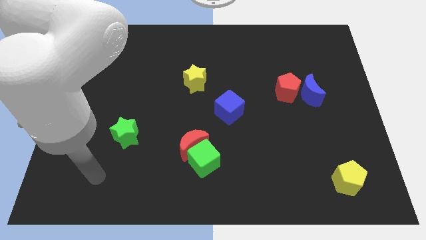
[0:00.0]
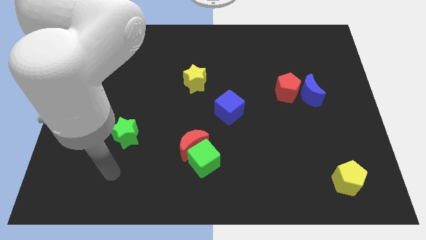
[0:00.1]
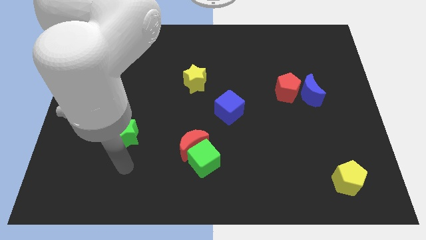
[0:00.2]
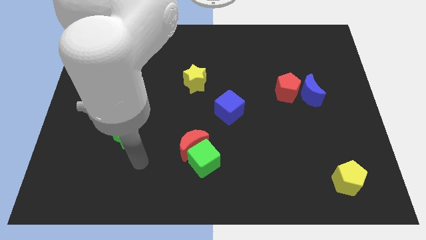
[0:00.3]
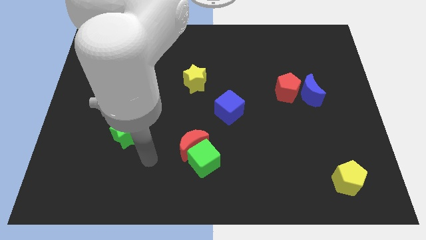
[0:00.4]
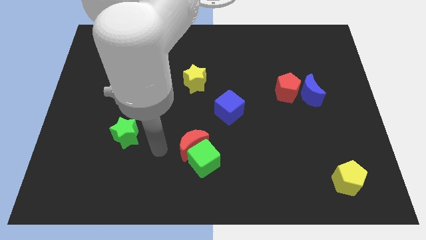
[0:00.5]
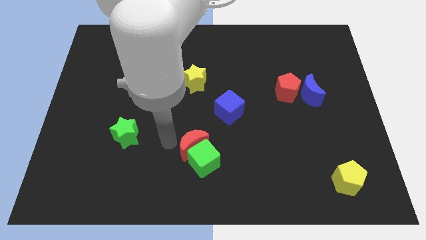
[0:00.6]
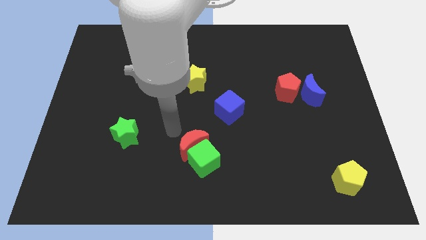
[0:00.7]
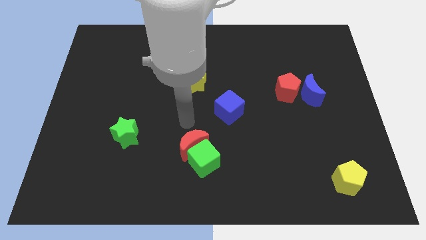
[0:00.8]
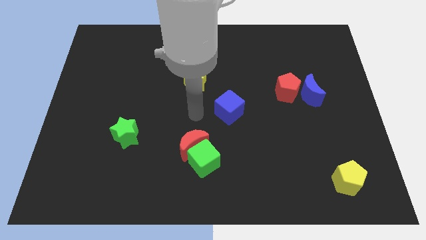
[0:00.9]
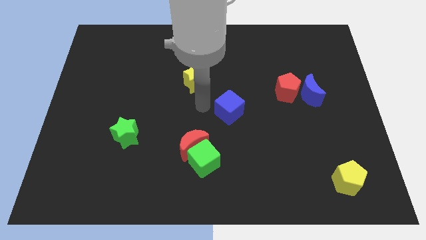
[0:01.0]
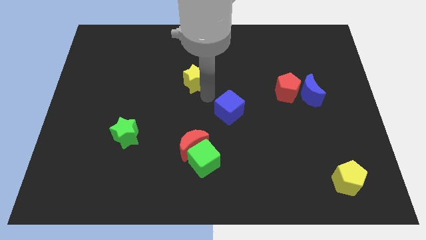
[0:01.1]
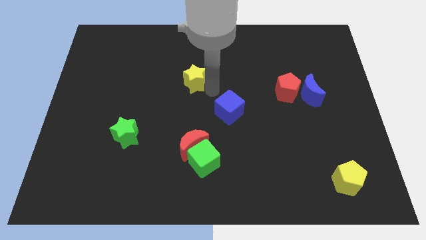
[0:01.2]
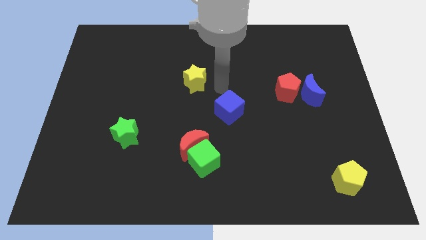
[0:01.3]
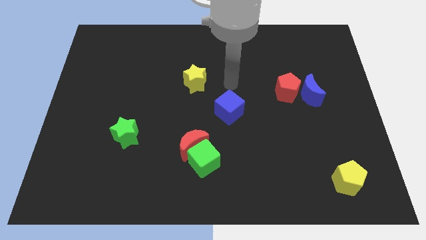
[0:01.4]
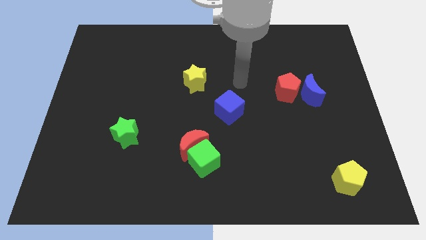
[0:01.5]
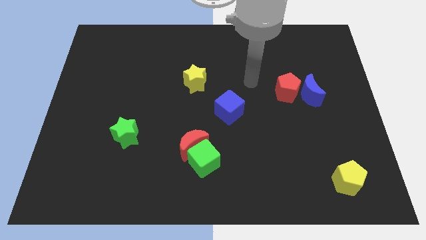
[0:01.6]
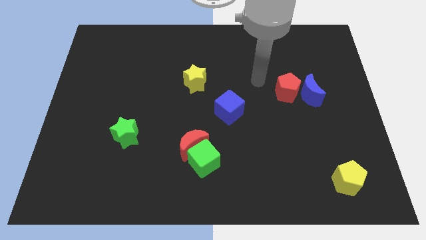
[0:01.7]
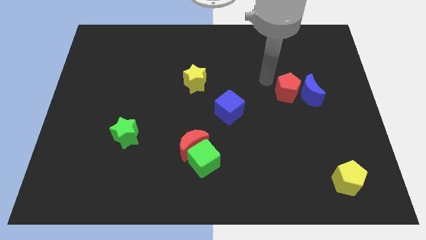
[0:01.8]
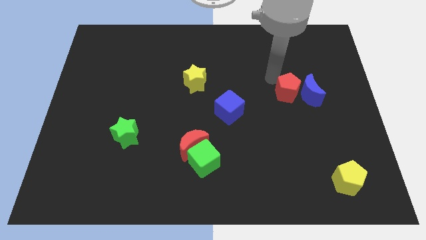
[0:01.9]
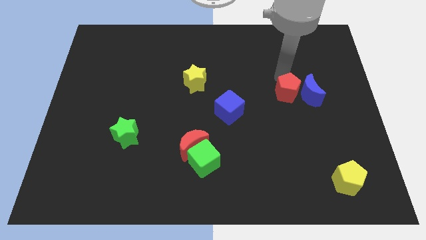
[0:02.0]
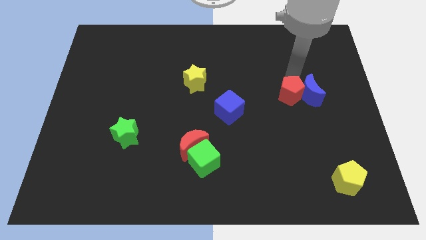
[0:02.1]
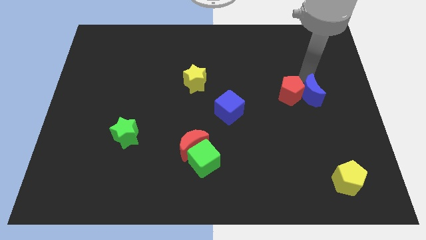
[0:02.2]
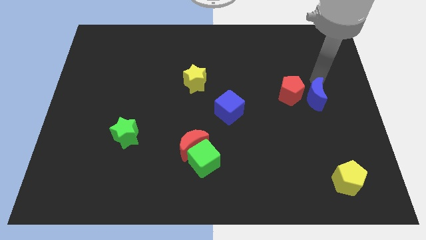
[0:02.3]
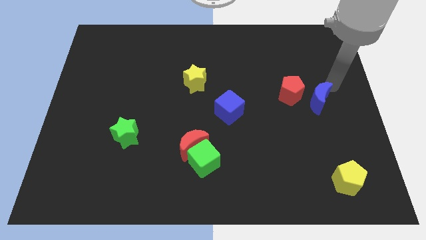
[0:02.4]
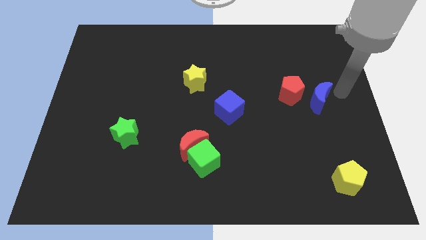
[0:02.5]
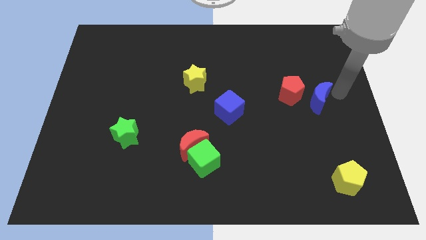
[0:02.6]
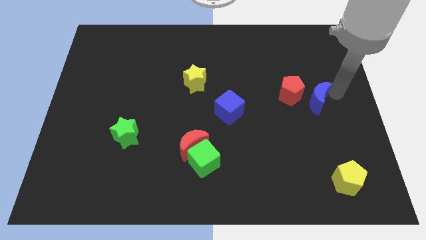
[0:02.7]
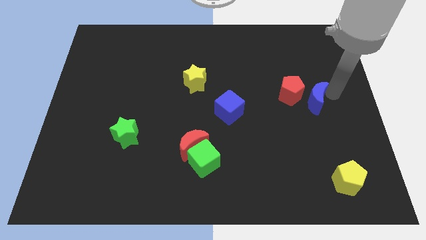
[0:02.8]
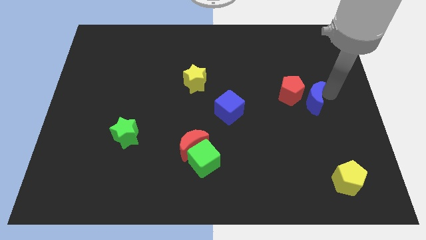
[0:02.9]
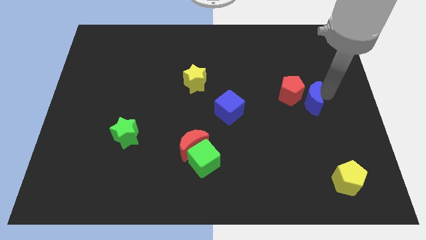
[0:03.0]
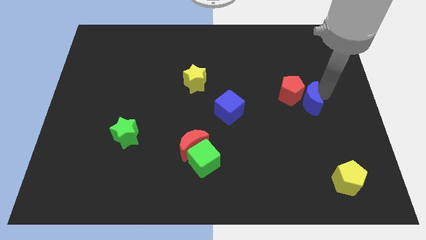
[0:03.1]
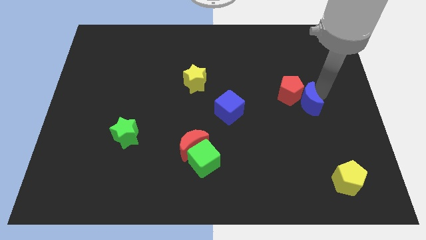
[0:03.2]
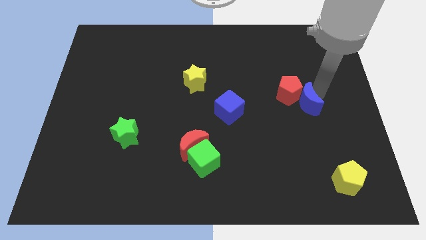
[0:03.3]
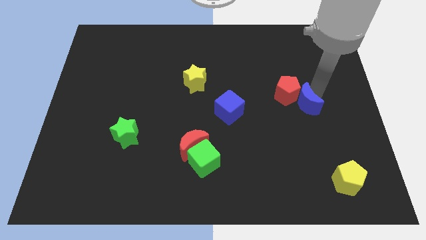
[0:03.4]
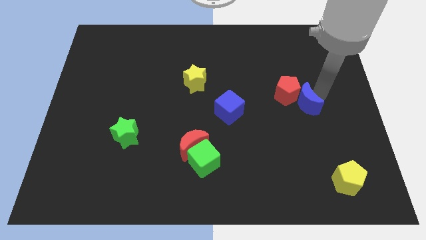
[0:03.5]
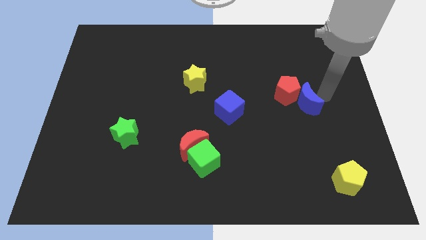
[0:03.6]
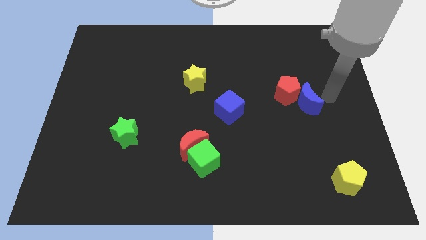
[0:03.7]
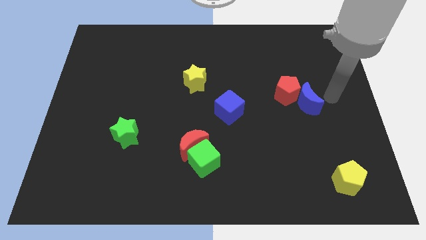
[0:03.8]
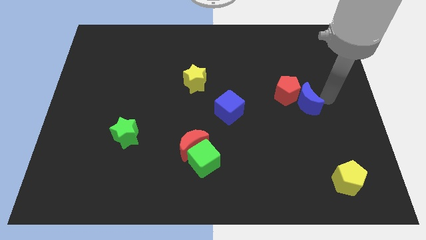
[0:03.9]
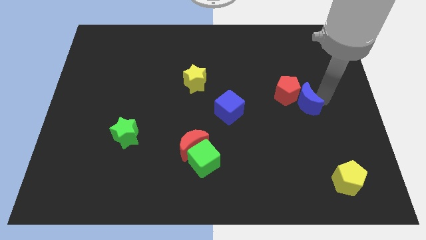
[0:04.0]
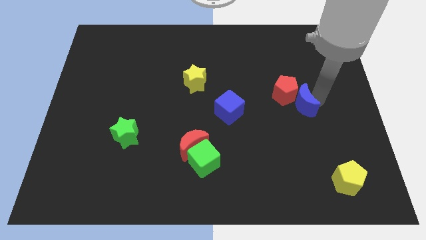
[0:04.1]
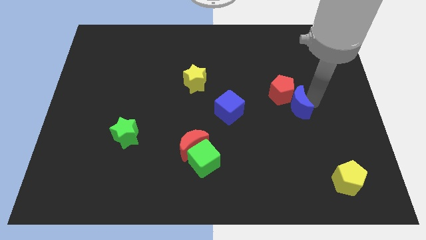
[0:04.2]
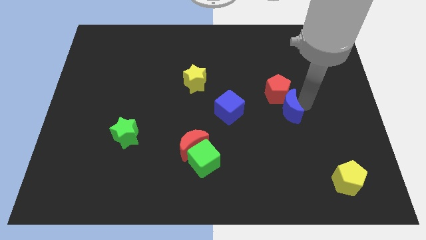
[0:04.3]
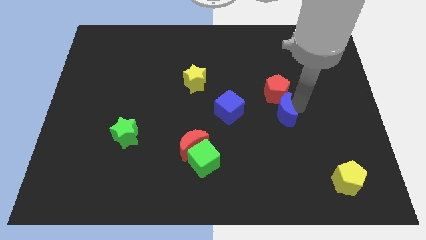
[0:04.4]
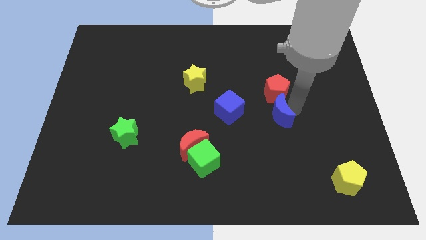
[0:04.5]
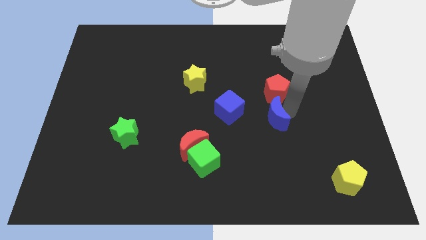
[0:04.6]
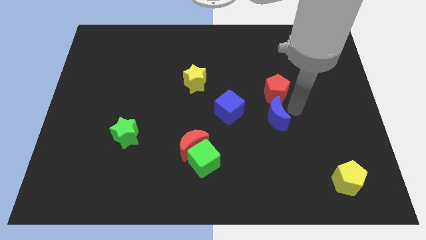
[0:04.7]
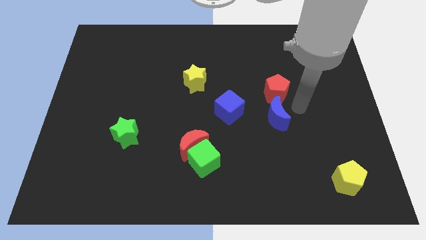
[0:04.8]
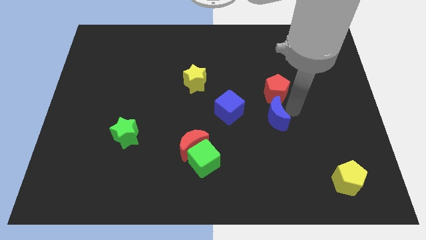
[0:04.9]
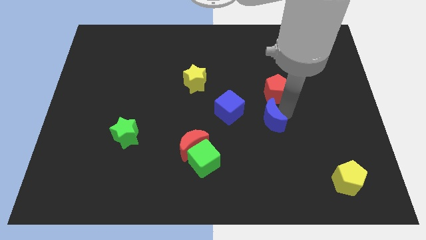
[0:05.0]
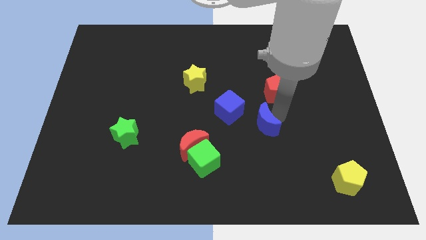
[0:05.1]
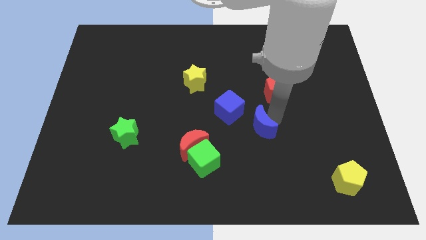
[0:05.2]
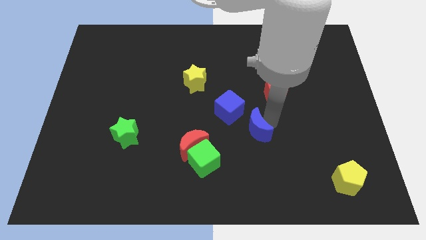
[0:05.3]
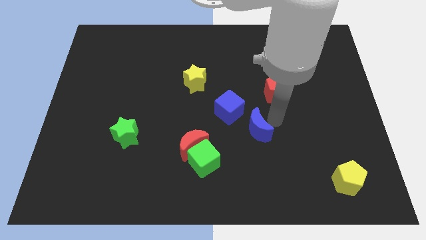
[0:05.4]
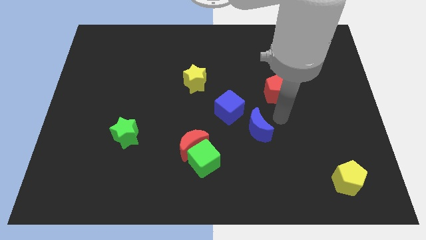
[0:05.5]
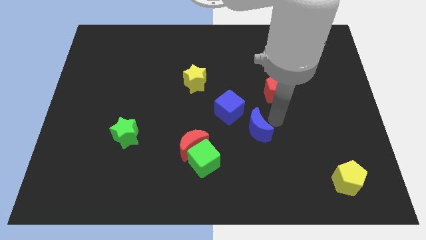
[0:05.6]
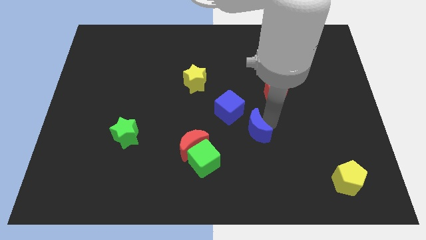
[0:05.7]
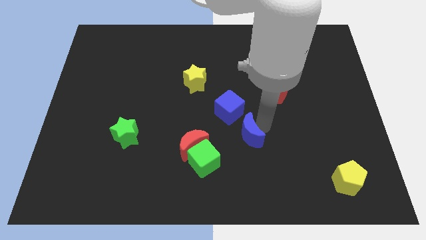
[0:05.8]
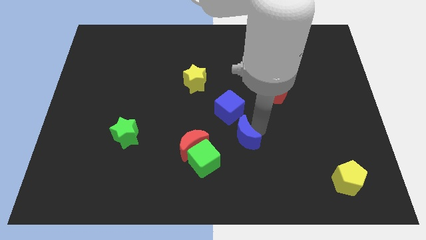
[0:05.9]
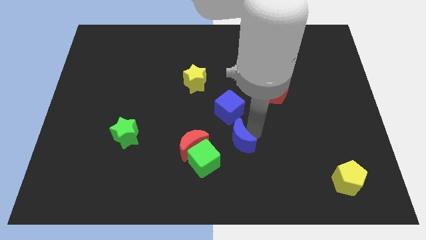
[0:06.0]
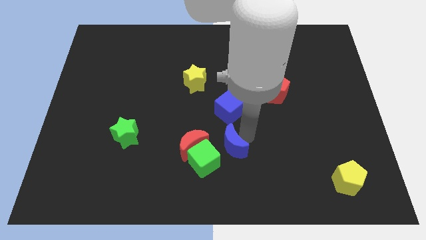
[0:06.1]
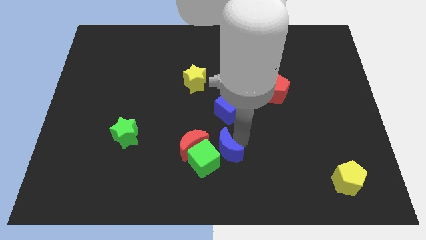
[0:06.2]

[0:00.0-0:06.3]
put the blue moon to the green cube

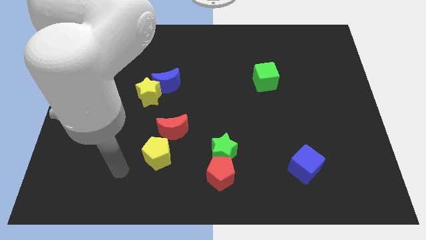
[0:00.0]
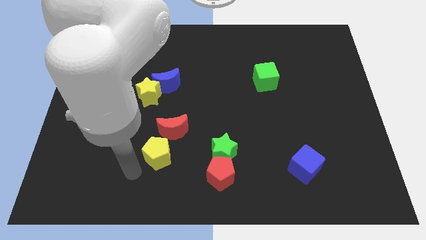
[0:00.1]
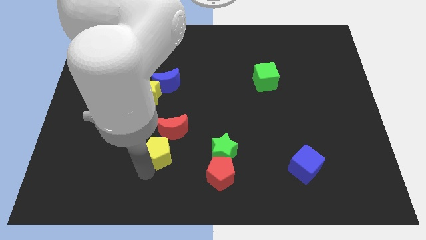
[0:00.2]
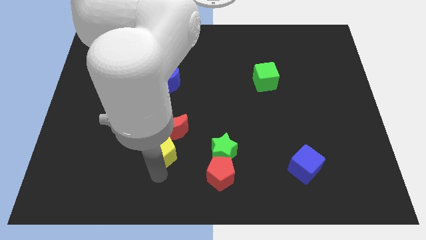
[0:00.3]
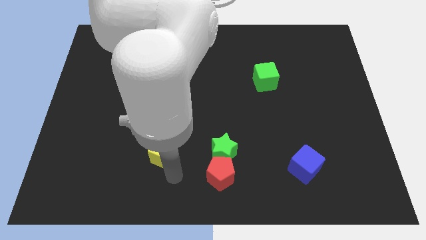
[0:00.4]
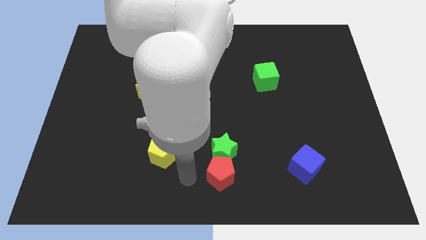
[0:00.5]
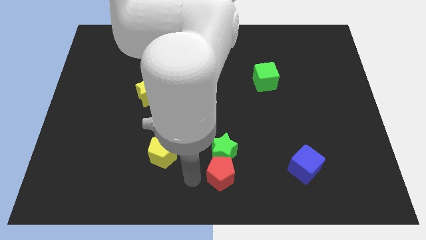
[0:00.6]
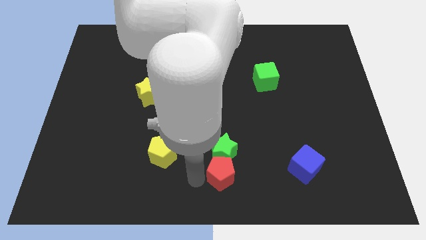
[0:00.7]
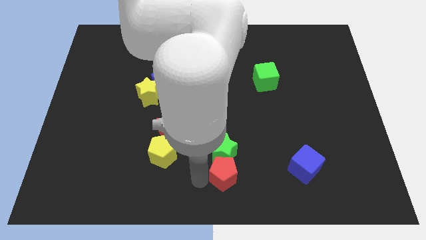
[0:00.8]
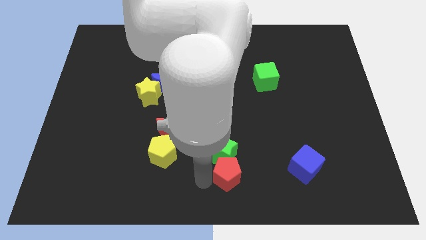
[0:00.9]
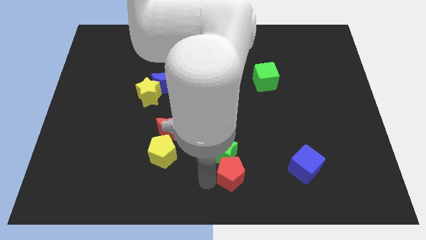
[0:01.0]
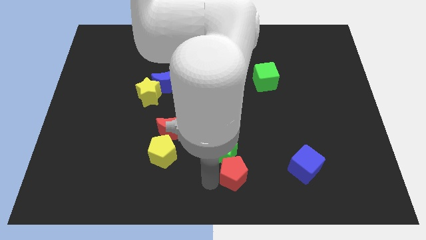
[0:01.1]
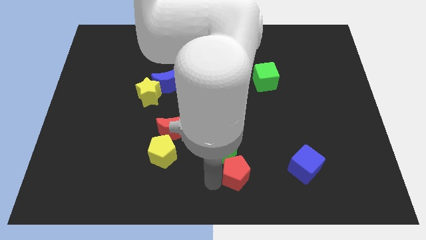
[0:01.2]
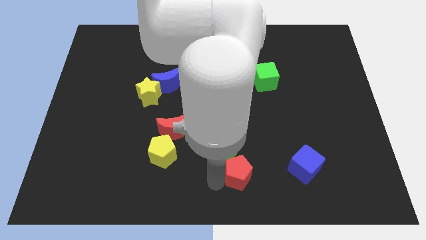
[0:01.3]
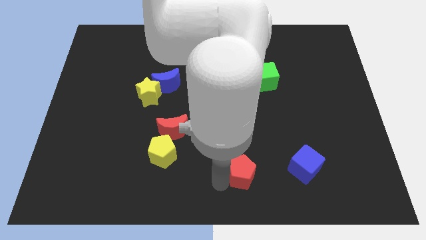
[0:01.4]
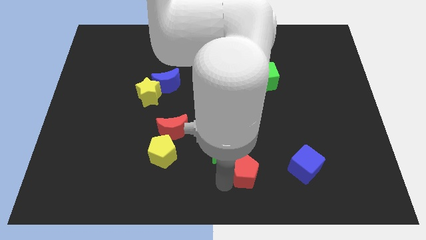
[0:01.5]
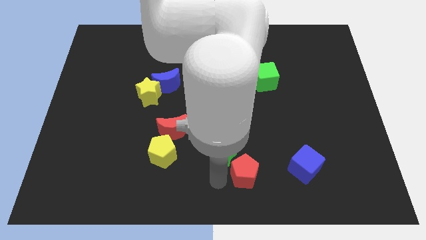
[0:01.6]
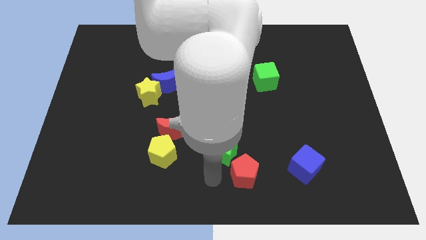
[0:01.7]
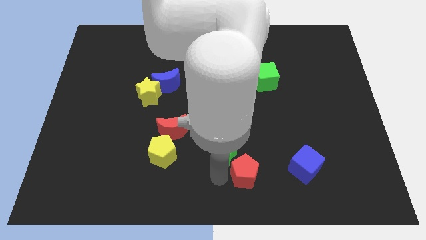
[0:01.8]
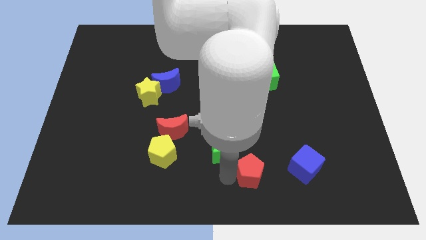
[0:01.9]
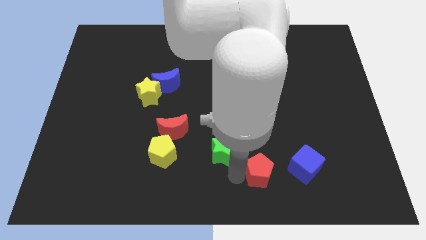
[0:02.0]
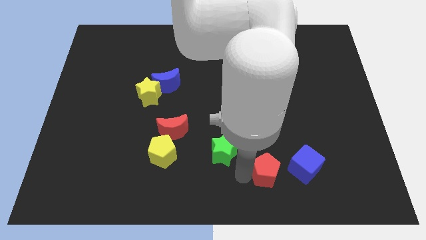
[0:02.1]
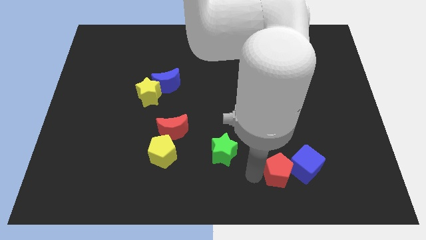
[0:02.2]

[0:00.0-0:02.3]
push the red pentagon to the blue cube
